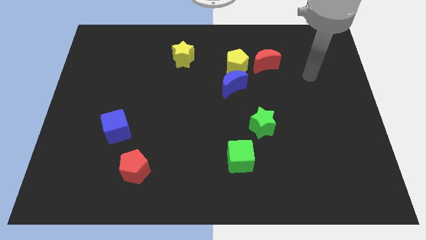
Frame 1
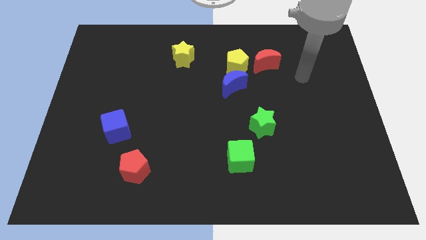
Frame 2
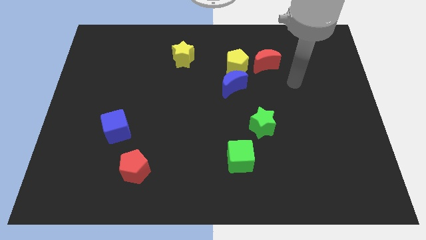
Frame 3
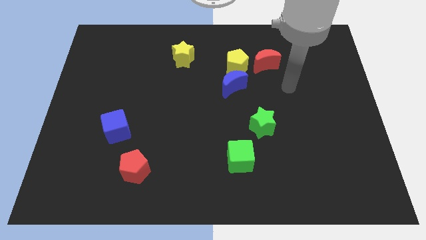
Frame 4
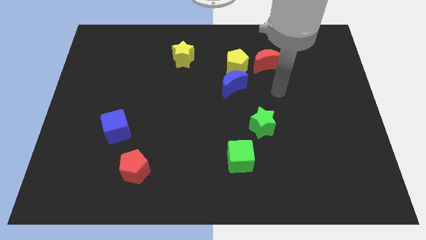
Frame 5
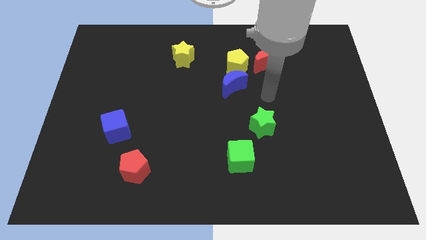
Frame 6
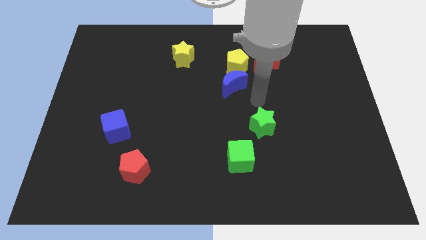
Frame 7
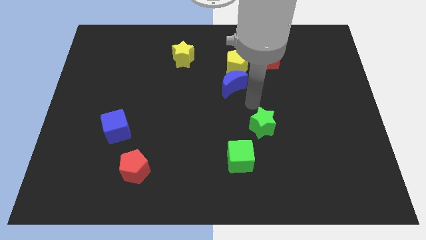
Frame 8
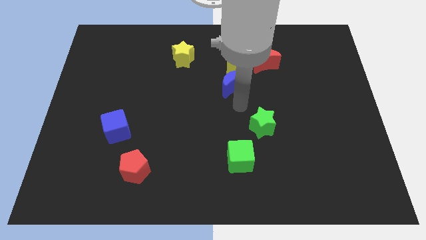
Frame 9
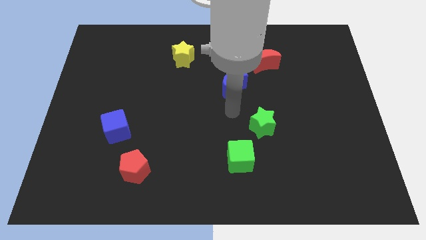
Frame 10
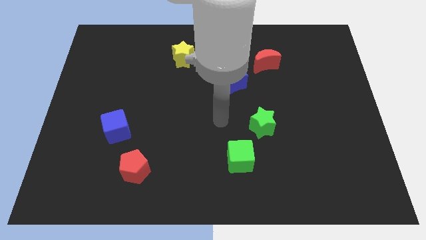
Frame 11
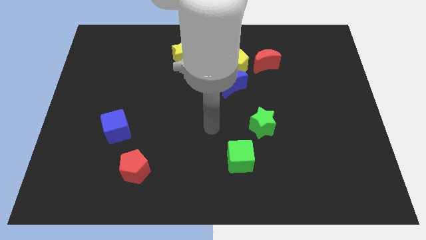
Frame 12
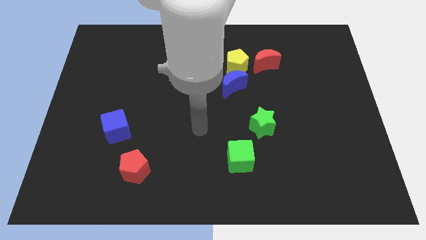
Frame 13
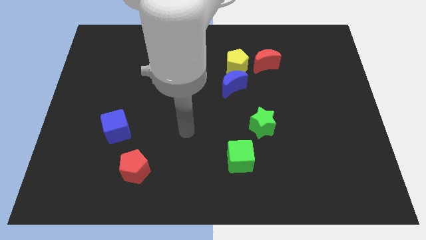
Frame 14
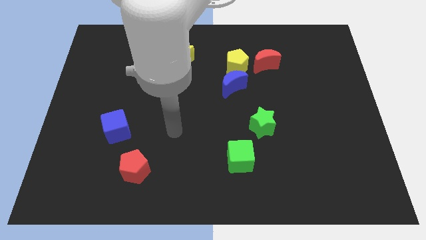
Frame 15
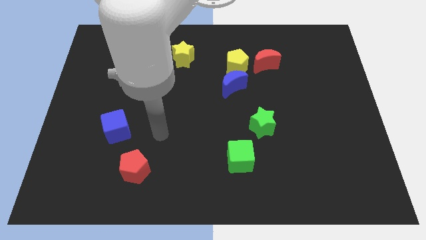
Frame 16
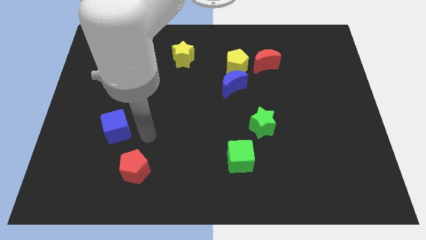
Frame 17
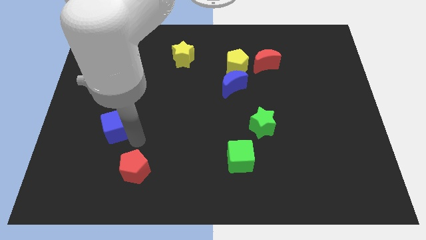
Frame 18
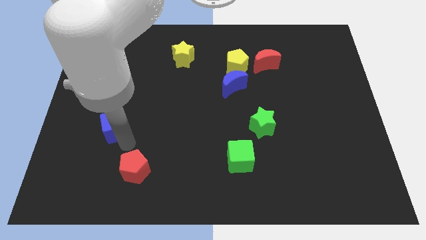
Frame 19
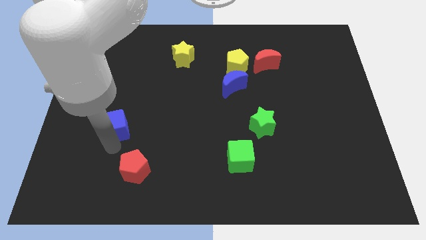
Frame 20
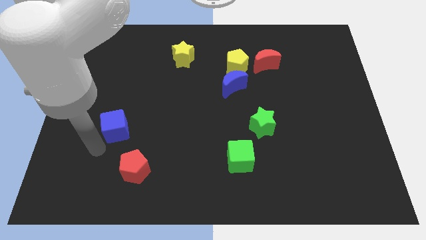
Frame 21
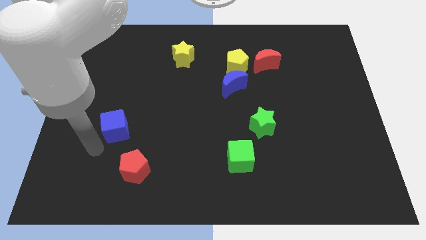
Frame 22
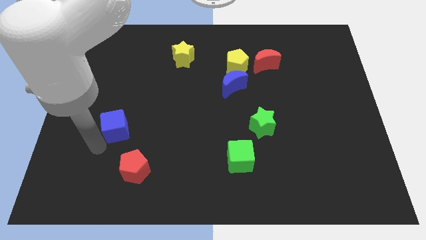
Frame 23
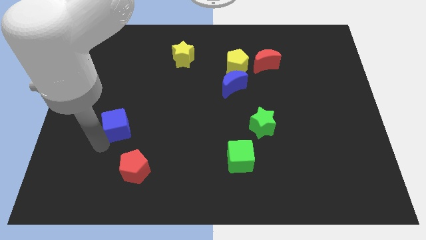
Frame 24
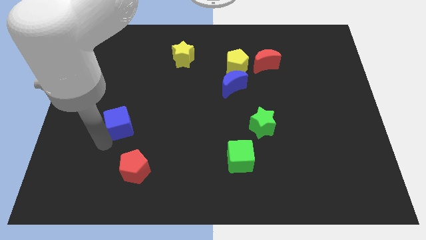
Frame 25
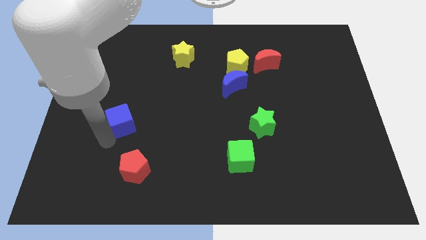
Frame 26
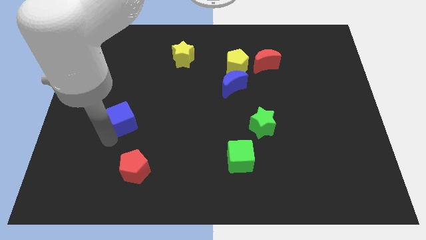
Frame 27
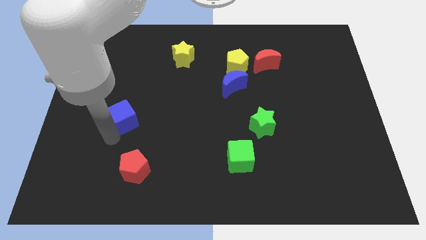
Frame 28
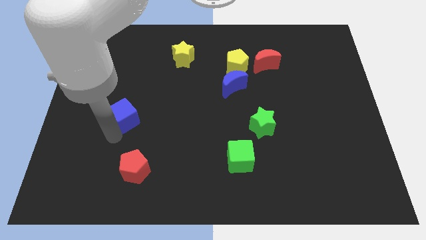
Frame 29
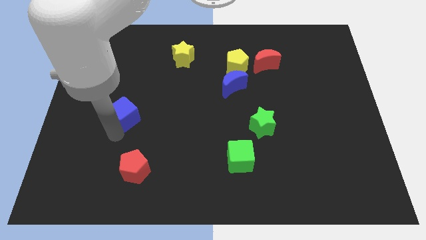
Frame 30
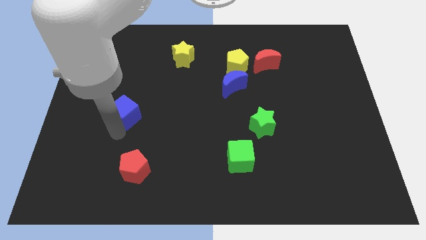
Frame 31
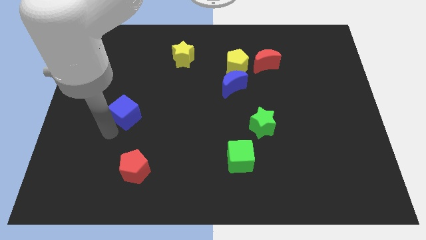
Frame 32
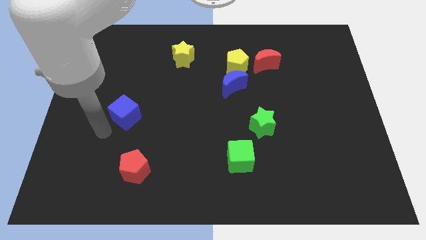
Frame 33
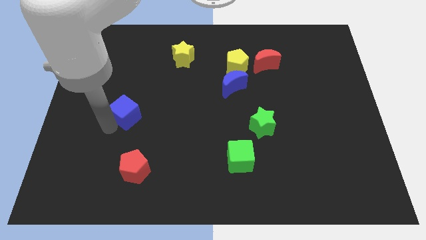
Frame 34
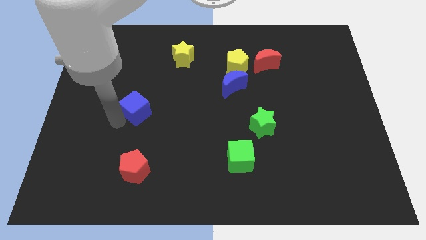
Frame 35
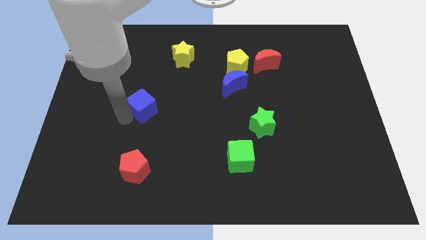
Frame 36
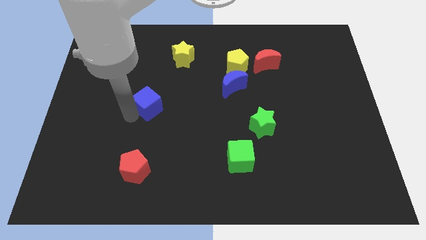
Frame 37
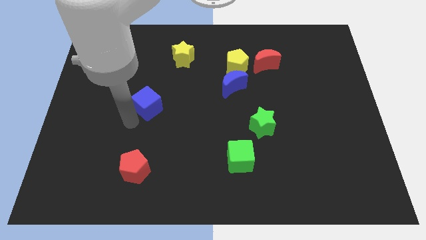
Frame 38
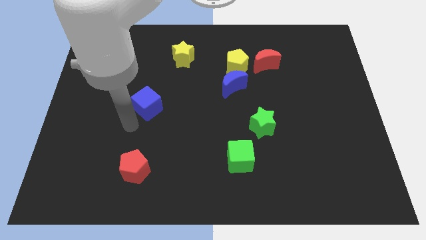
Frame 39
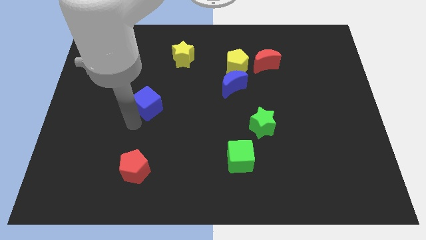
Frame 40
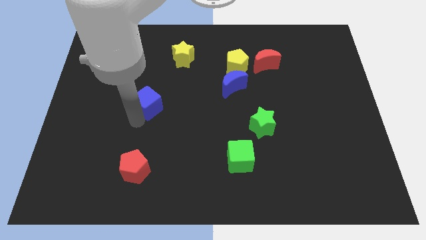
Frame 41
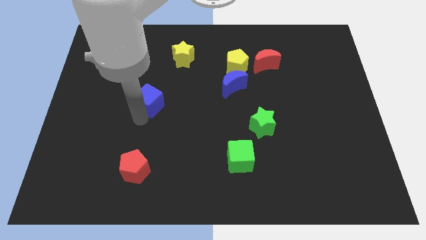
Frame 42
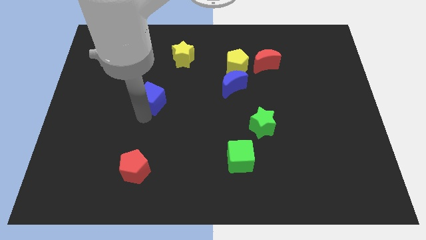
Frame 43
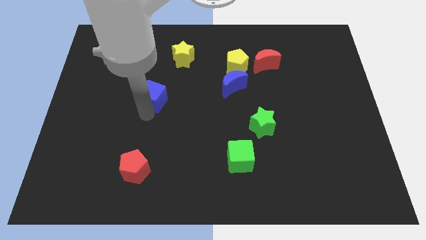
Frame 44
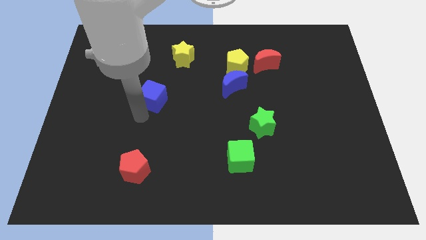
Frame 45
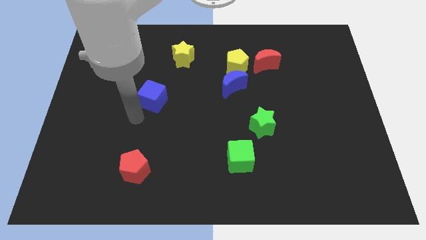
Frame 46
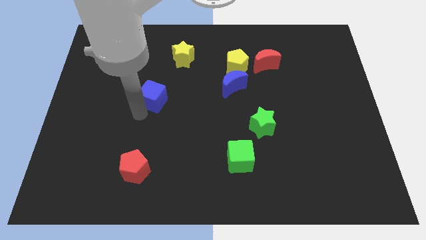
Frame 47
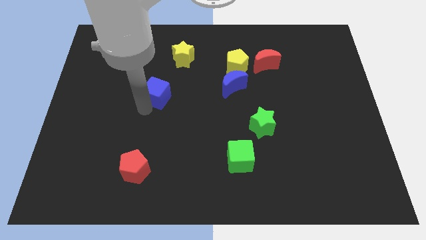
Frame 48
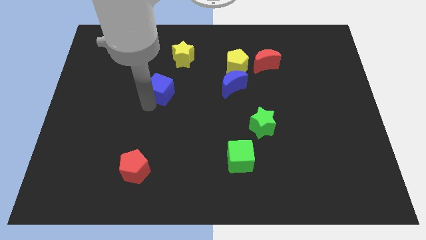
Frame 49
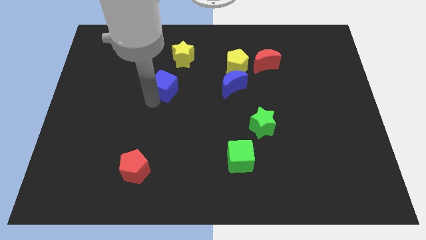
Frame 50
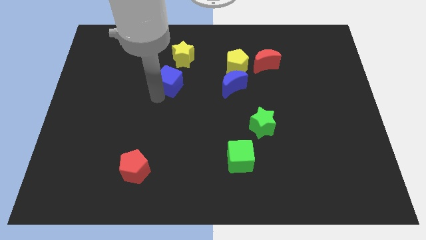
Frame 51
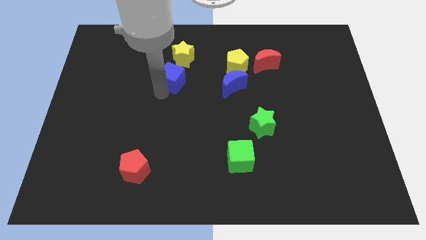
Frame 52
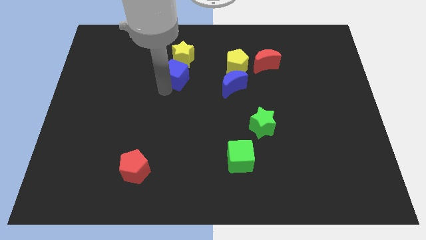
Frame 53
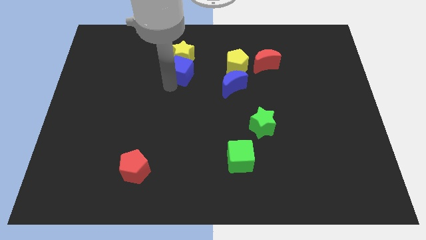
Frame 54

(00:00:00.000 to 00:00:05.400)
move the blue cube to the yellow star

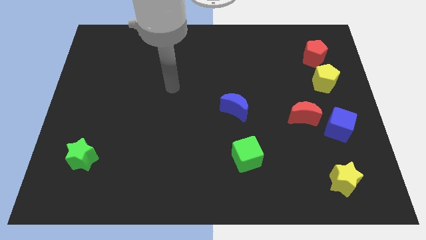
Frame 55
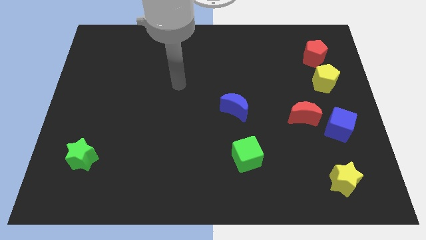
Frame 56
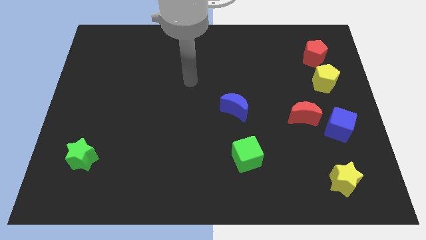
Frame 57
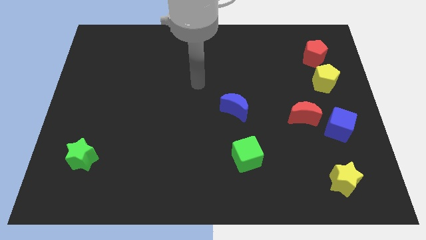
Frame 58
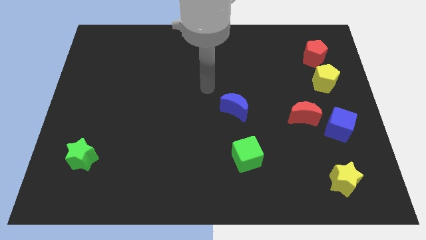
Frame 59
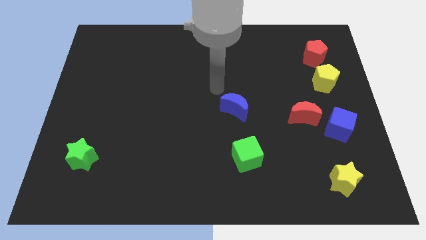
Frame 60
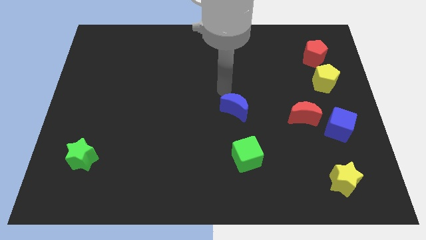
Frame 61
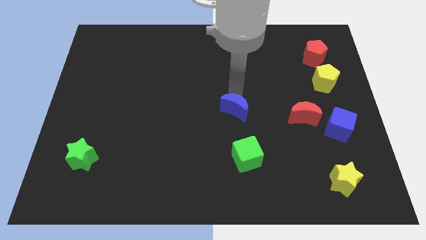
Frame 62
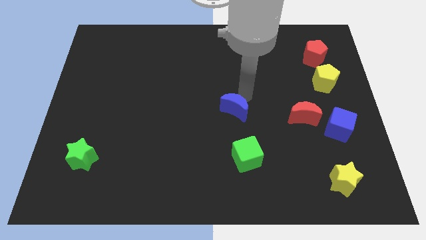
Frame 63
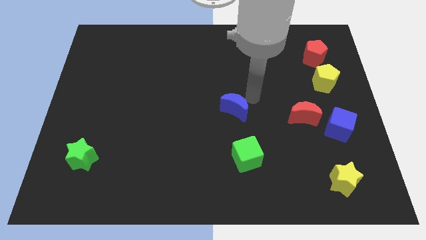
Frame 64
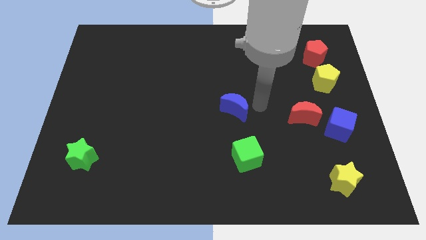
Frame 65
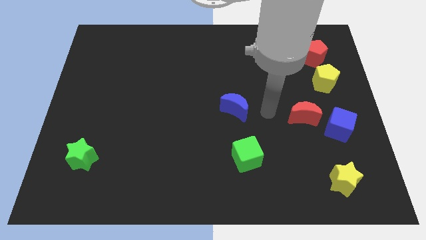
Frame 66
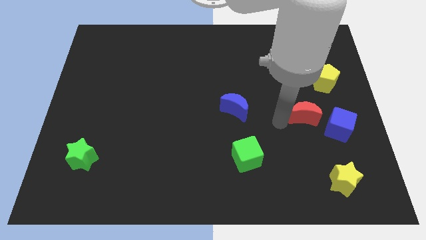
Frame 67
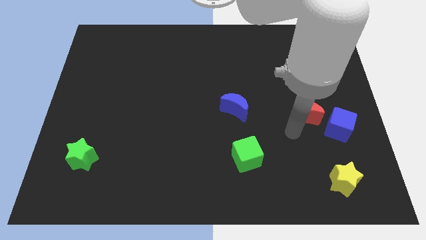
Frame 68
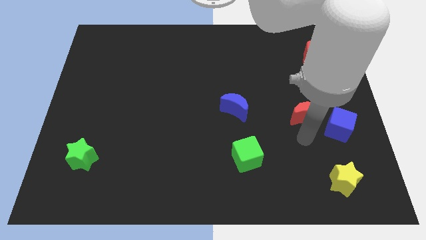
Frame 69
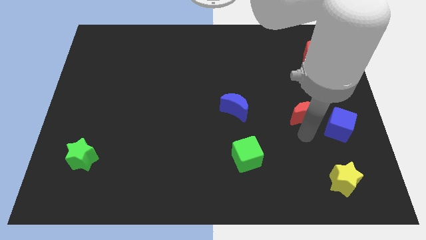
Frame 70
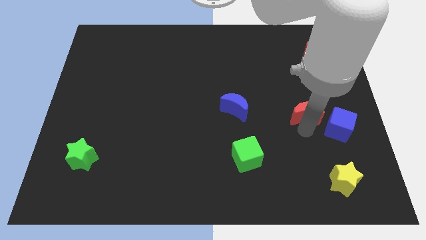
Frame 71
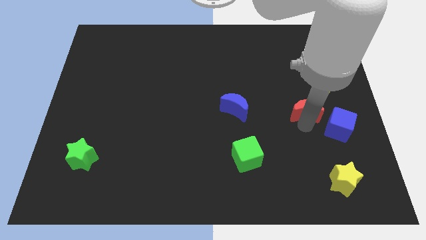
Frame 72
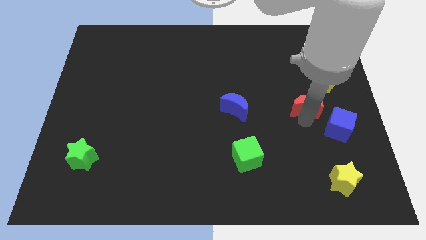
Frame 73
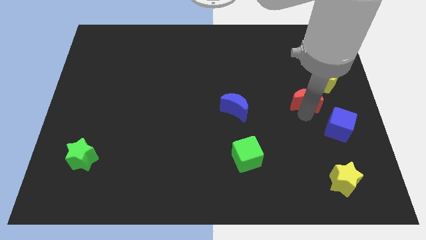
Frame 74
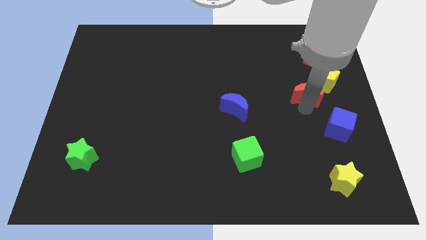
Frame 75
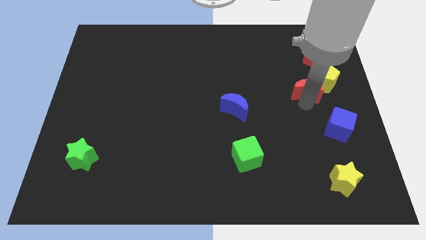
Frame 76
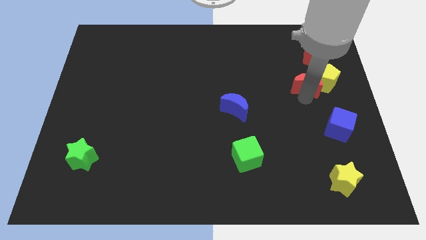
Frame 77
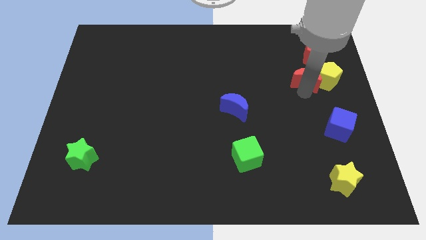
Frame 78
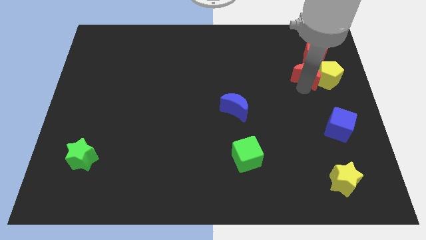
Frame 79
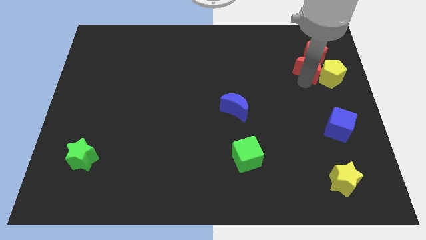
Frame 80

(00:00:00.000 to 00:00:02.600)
move the red moon next to the red pentagon
